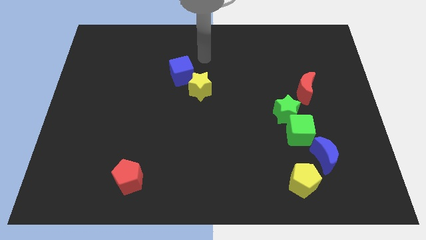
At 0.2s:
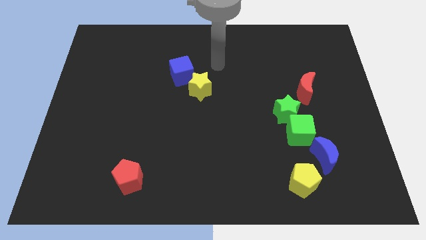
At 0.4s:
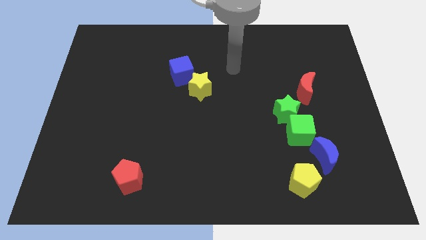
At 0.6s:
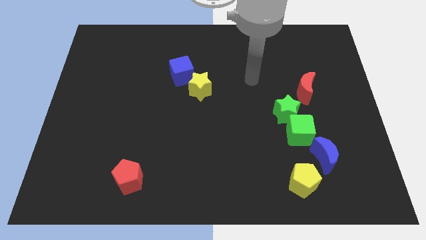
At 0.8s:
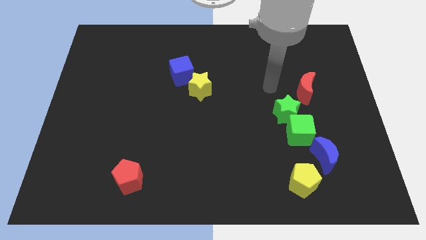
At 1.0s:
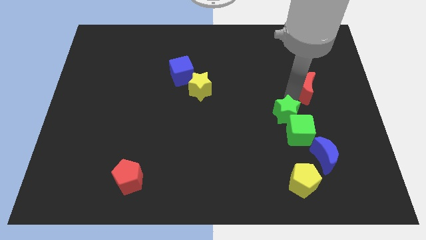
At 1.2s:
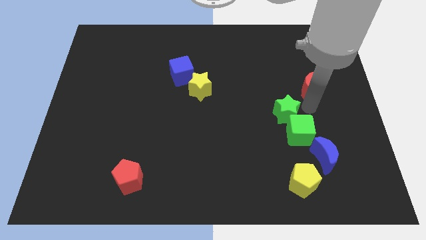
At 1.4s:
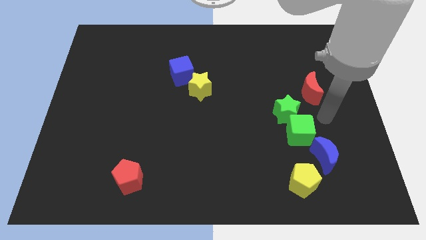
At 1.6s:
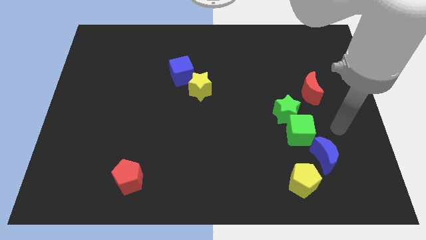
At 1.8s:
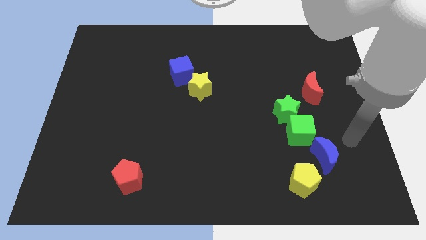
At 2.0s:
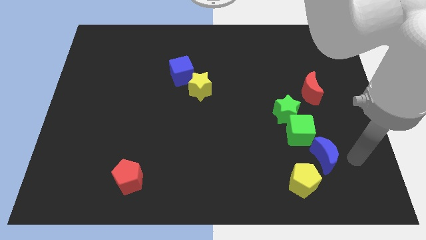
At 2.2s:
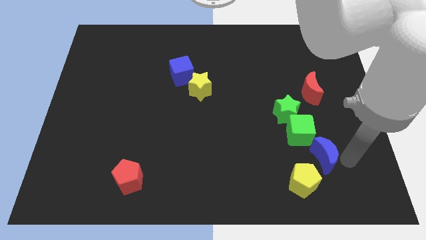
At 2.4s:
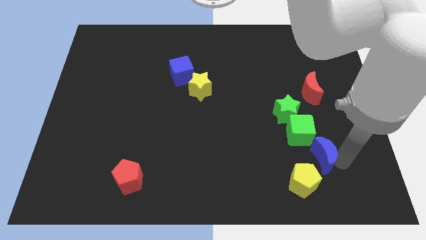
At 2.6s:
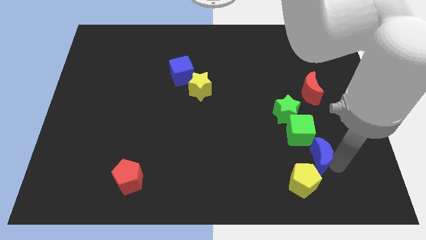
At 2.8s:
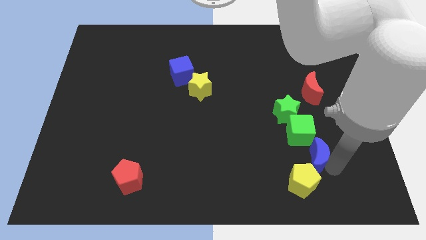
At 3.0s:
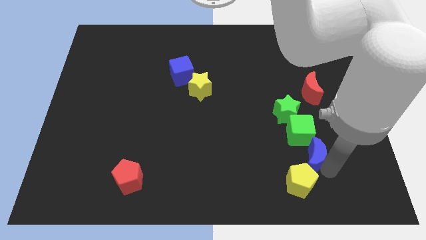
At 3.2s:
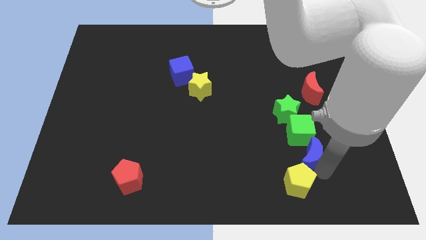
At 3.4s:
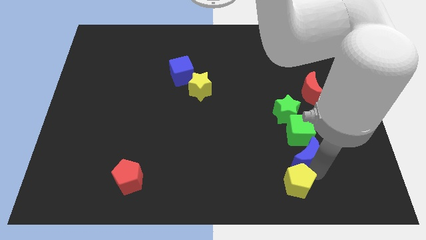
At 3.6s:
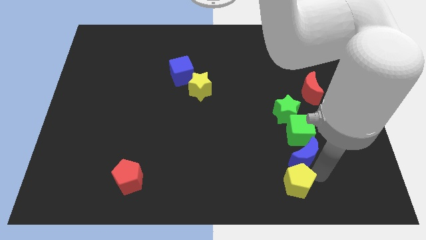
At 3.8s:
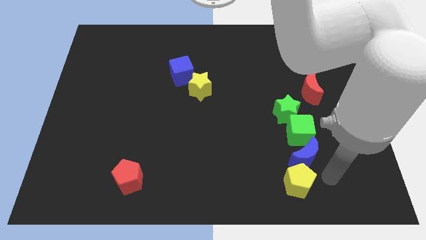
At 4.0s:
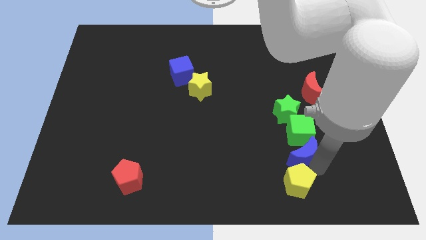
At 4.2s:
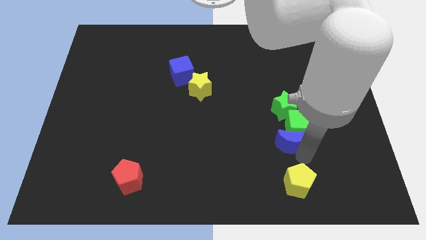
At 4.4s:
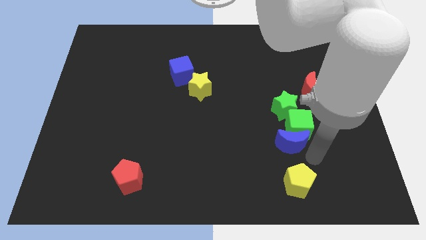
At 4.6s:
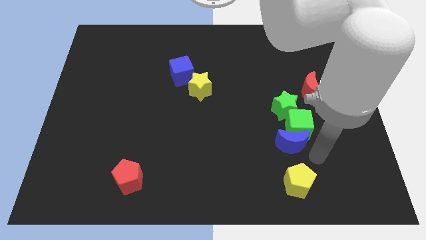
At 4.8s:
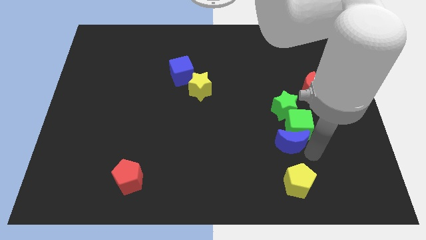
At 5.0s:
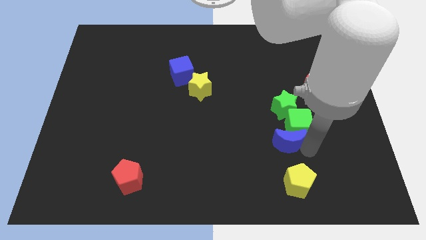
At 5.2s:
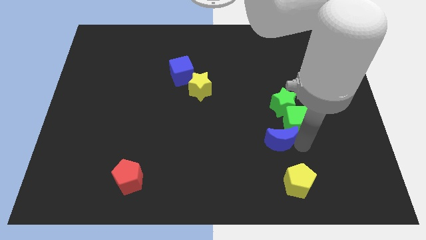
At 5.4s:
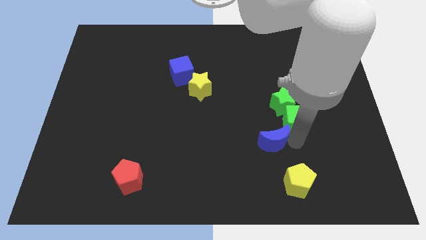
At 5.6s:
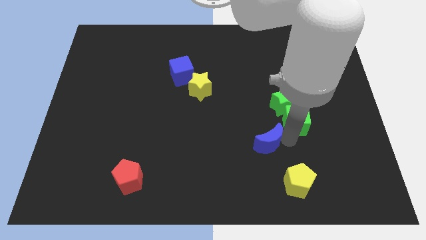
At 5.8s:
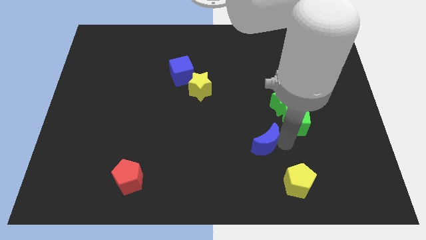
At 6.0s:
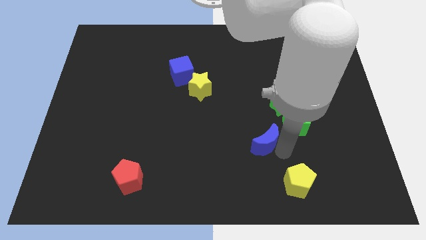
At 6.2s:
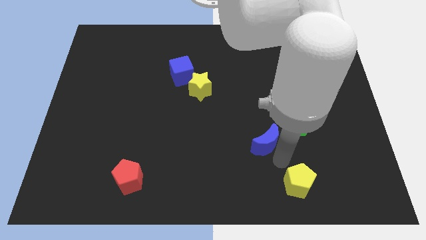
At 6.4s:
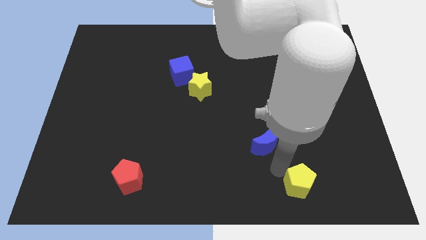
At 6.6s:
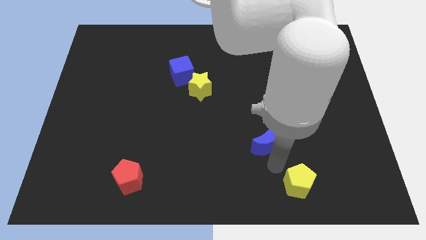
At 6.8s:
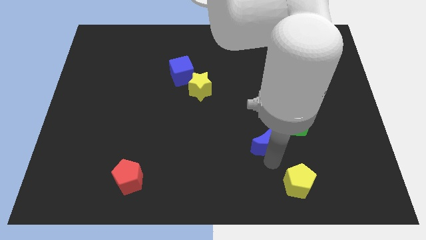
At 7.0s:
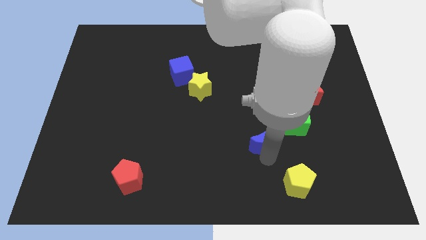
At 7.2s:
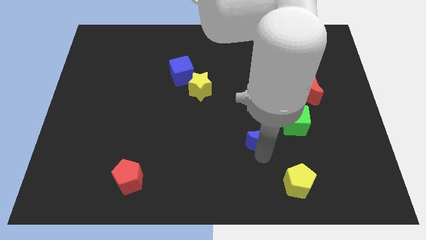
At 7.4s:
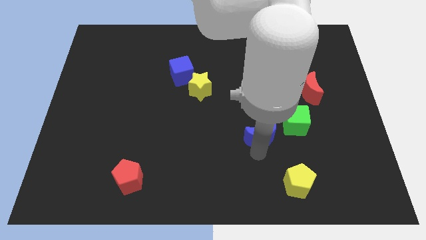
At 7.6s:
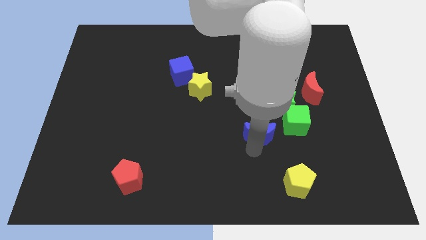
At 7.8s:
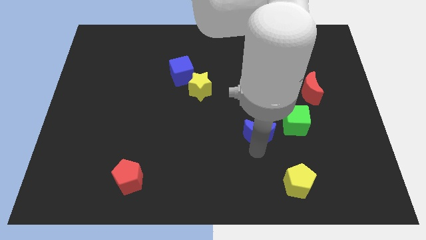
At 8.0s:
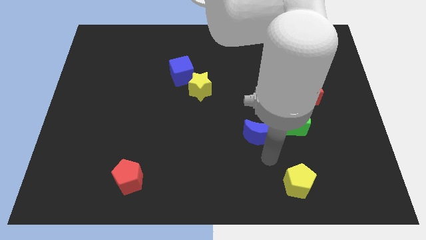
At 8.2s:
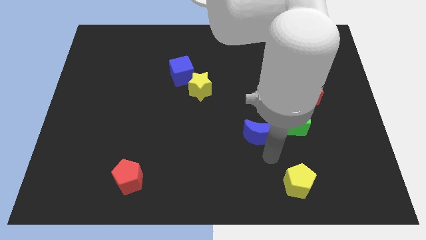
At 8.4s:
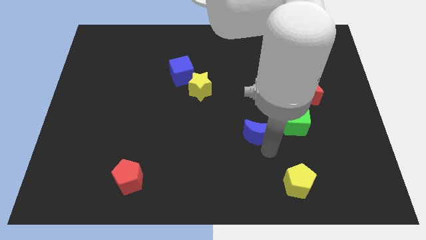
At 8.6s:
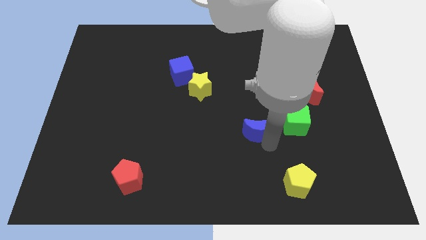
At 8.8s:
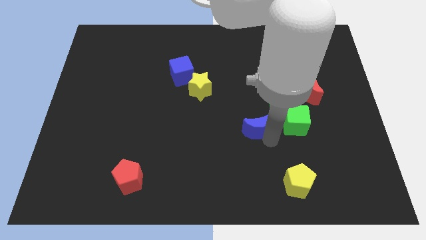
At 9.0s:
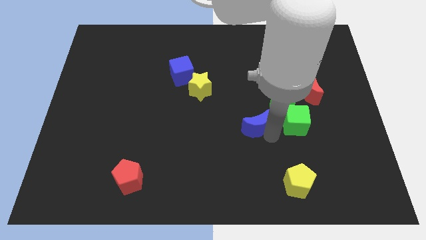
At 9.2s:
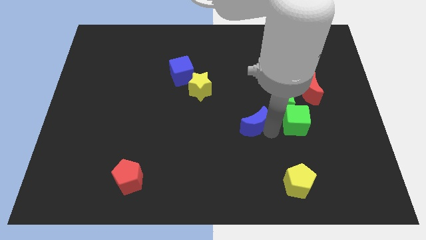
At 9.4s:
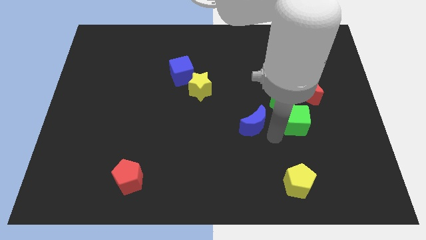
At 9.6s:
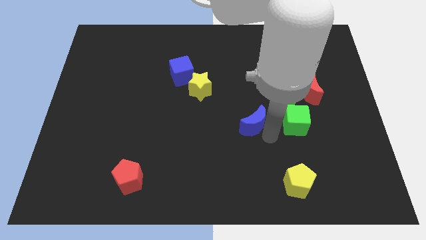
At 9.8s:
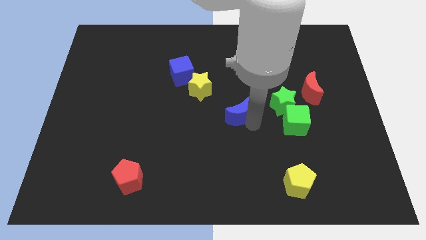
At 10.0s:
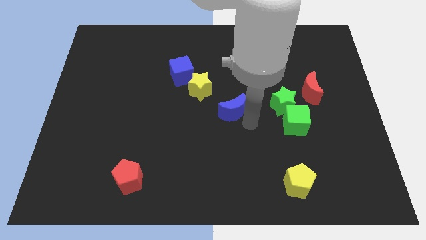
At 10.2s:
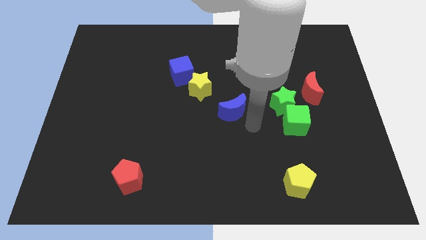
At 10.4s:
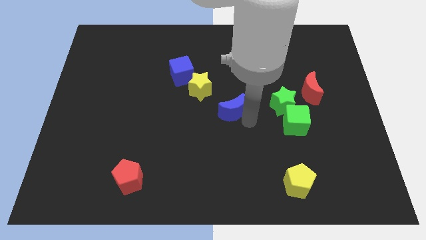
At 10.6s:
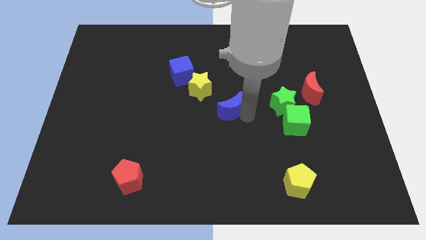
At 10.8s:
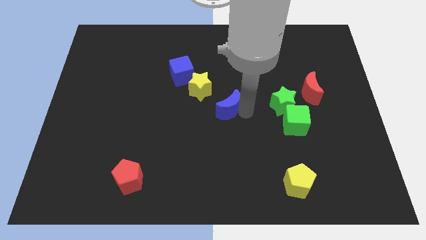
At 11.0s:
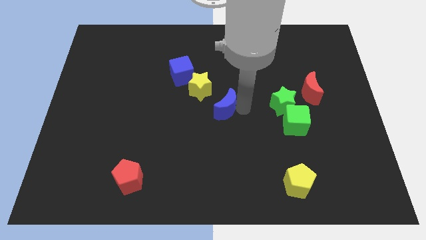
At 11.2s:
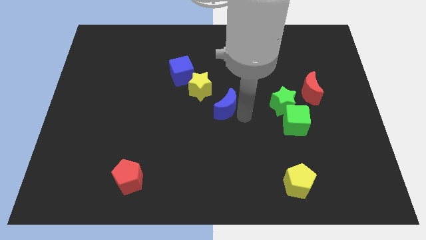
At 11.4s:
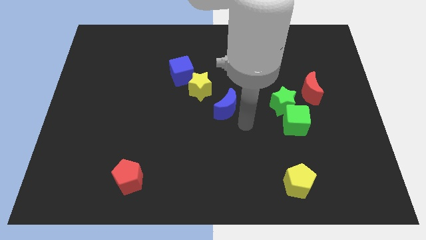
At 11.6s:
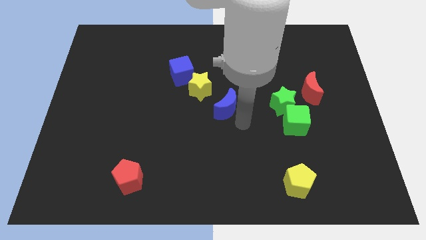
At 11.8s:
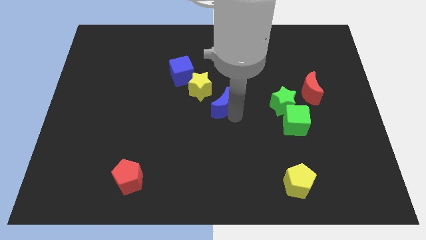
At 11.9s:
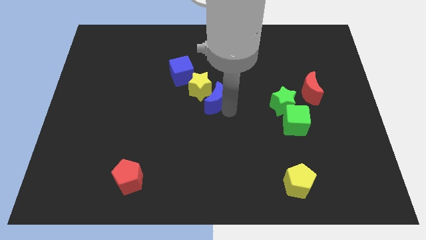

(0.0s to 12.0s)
move the blue moon to the yellow star

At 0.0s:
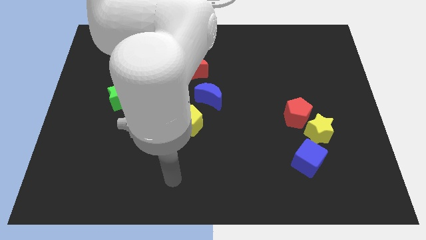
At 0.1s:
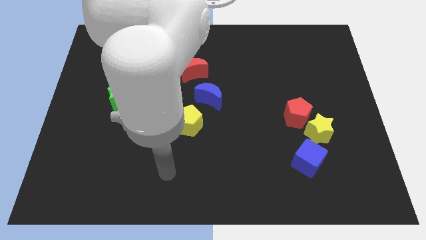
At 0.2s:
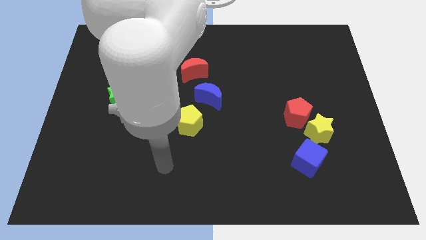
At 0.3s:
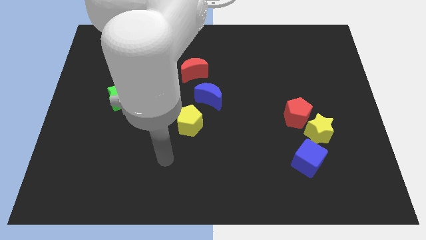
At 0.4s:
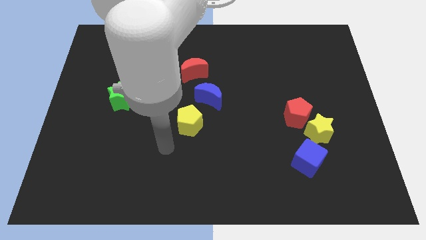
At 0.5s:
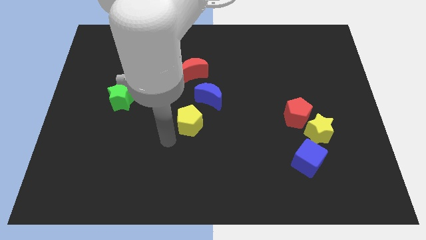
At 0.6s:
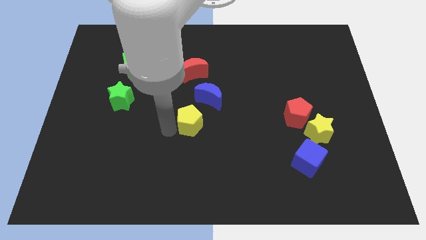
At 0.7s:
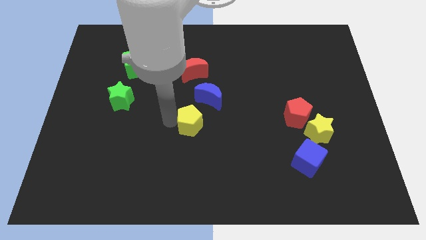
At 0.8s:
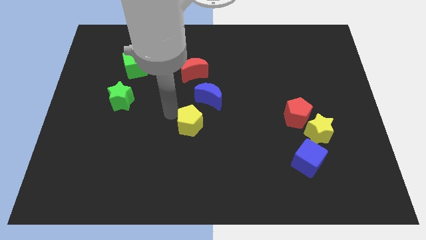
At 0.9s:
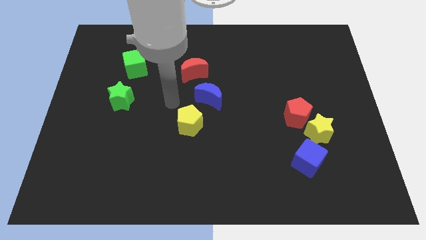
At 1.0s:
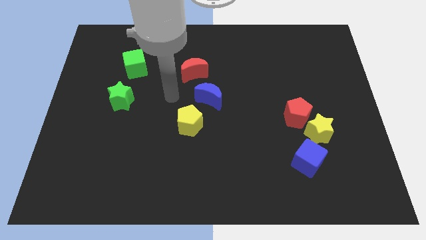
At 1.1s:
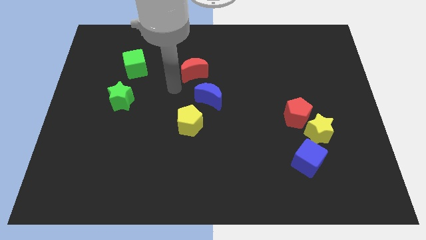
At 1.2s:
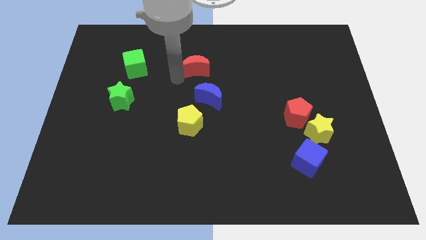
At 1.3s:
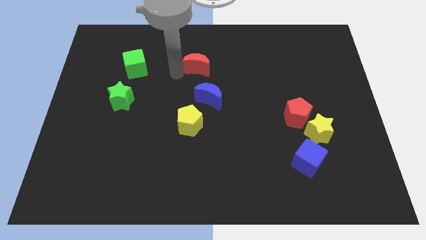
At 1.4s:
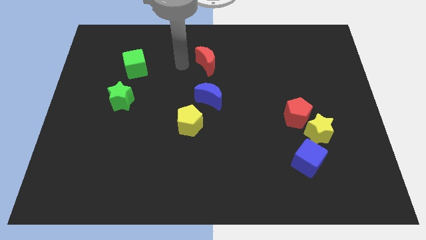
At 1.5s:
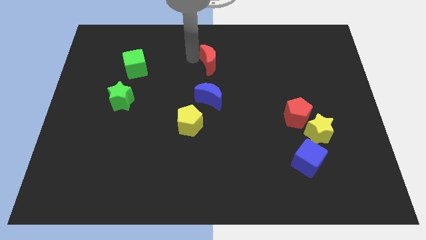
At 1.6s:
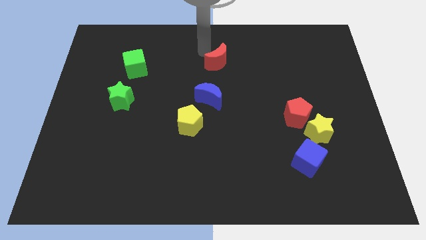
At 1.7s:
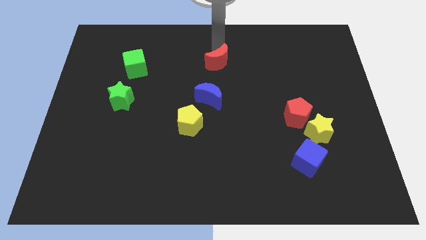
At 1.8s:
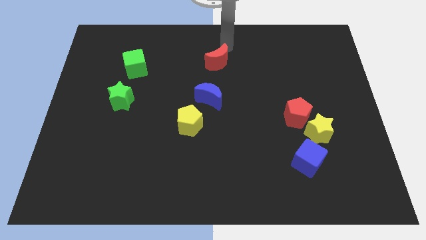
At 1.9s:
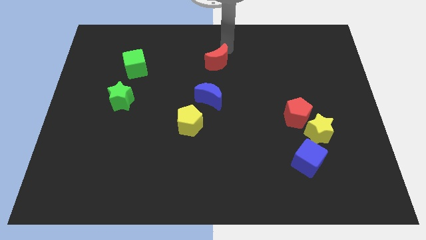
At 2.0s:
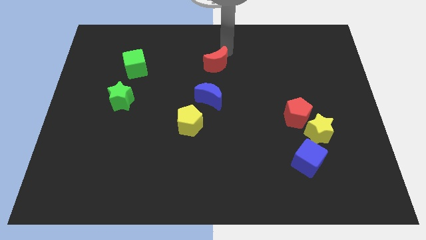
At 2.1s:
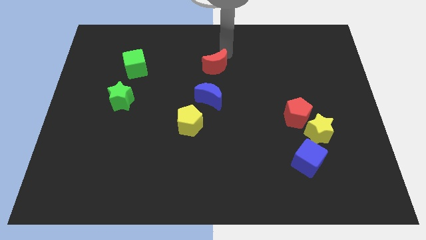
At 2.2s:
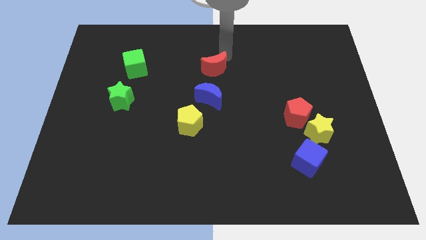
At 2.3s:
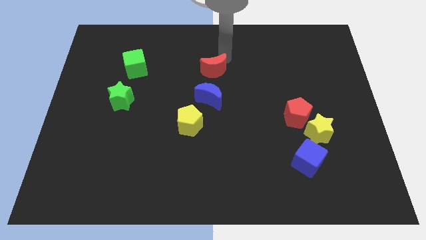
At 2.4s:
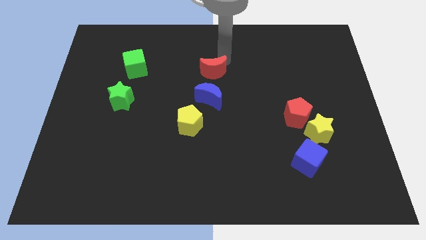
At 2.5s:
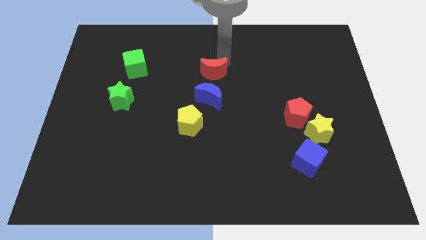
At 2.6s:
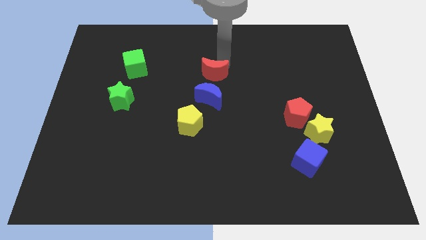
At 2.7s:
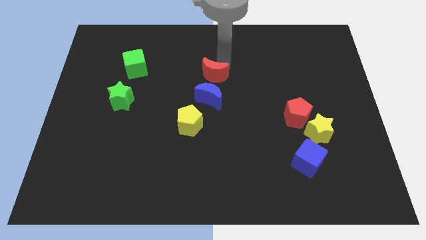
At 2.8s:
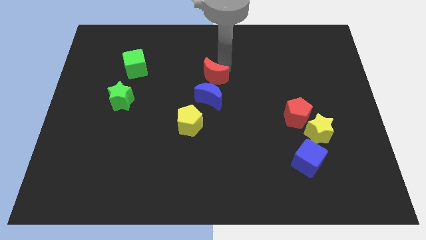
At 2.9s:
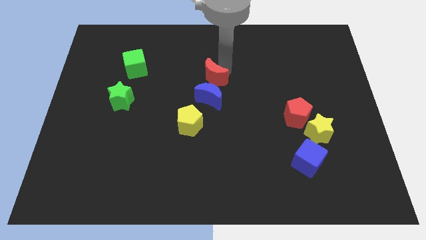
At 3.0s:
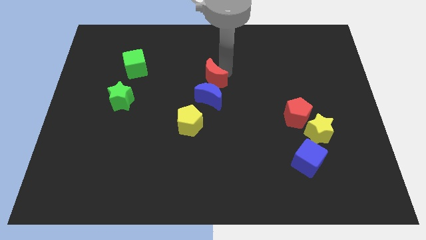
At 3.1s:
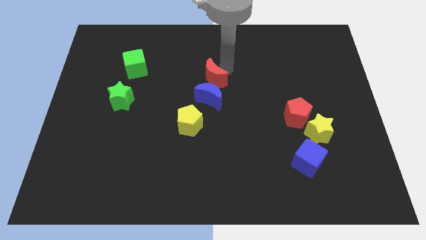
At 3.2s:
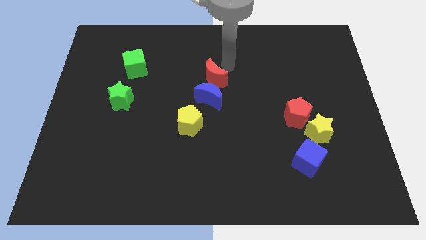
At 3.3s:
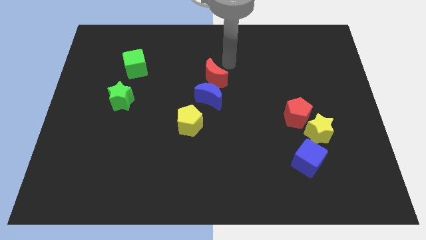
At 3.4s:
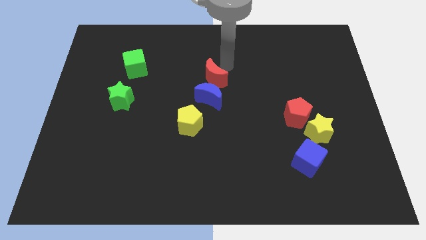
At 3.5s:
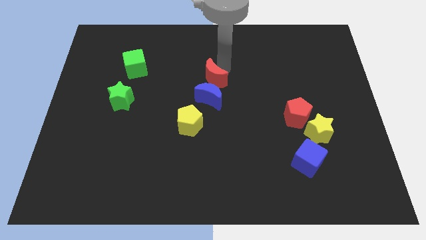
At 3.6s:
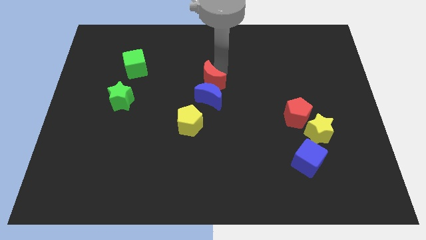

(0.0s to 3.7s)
move the red moon to the blue moon
